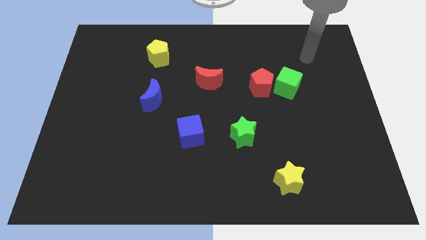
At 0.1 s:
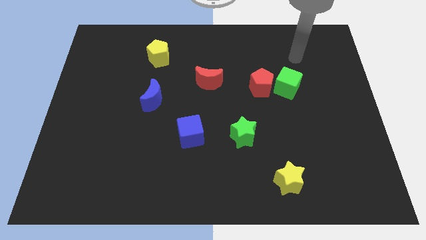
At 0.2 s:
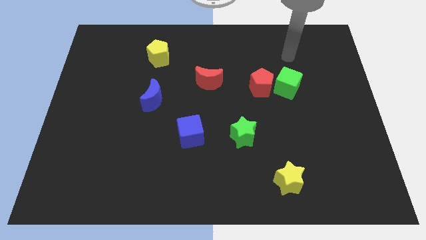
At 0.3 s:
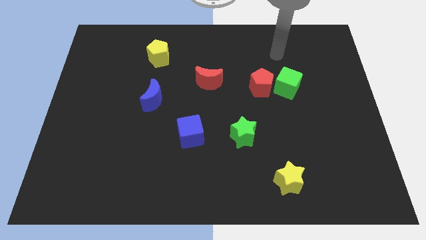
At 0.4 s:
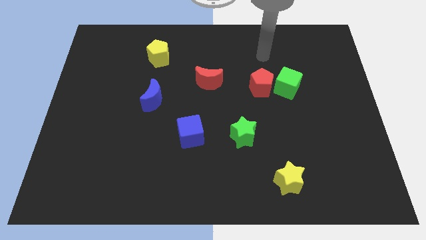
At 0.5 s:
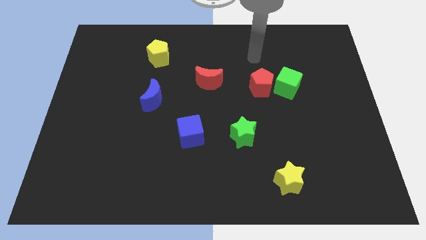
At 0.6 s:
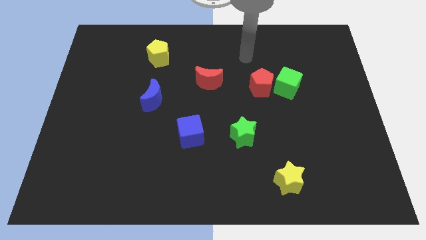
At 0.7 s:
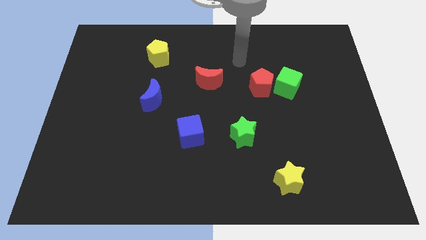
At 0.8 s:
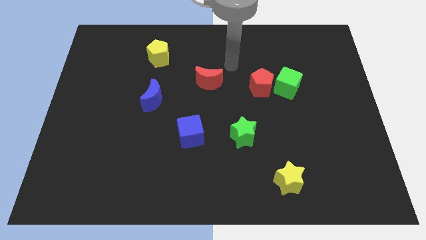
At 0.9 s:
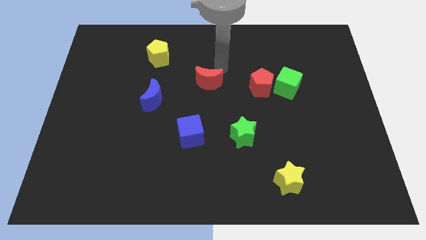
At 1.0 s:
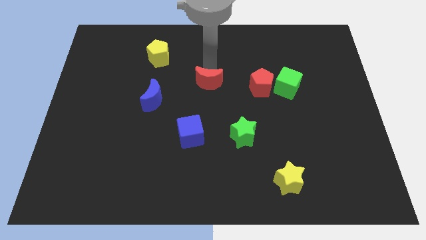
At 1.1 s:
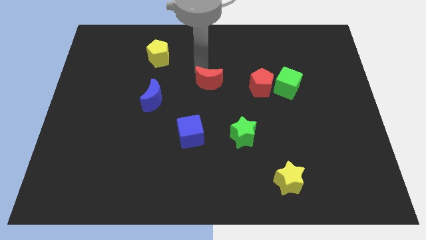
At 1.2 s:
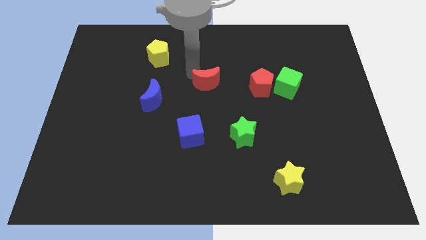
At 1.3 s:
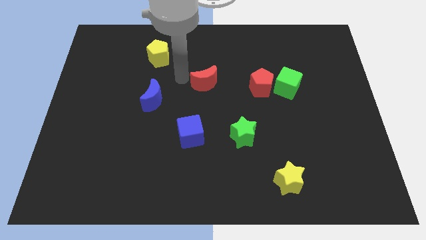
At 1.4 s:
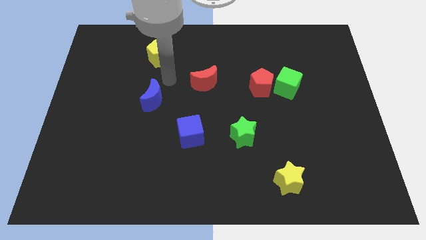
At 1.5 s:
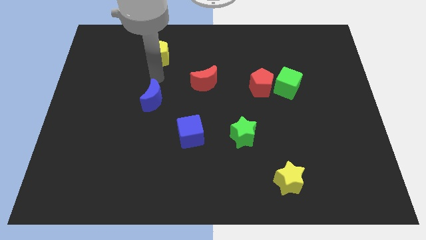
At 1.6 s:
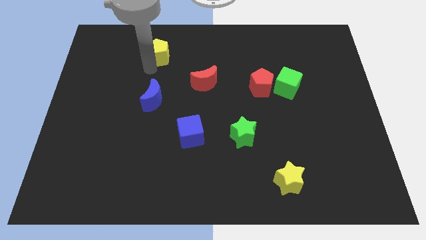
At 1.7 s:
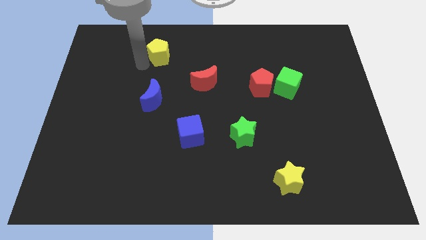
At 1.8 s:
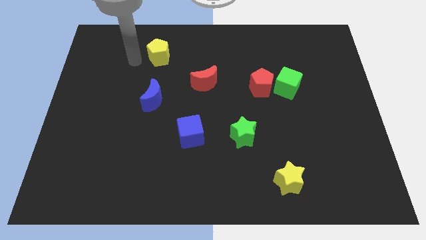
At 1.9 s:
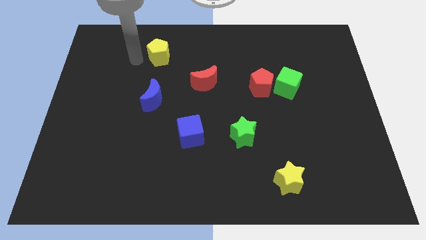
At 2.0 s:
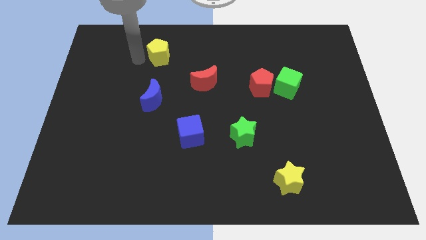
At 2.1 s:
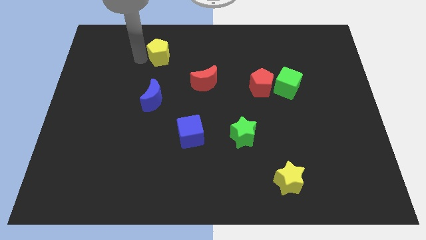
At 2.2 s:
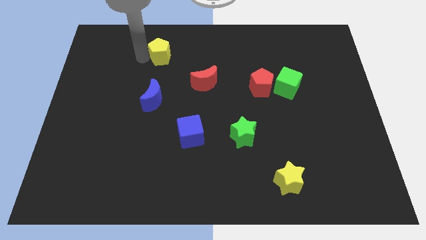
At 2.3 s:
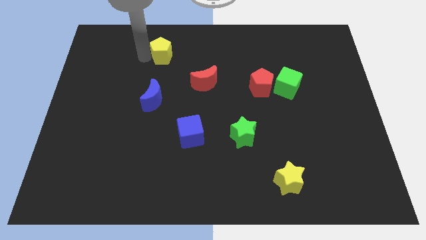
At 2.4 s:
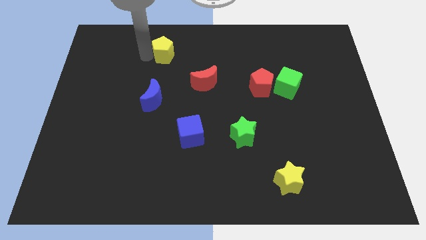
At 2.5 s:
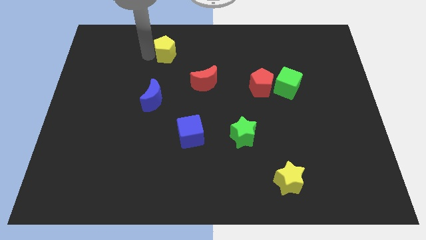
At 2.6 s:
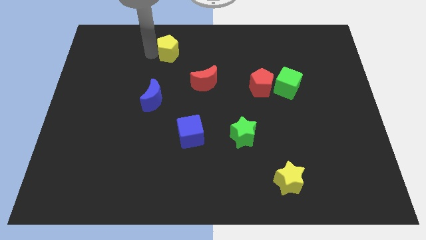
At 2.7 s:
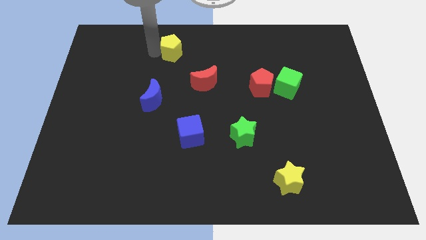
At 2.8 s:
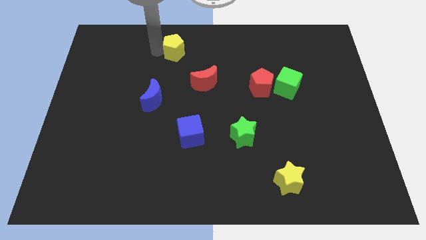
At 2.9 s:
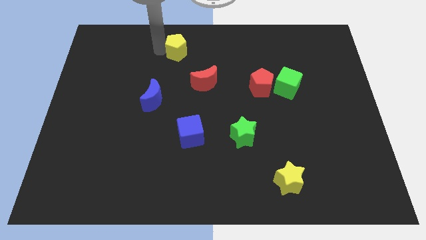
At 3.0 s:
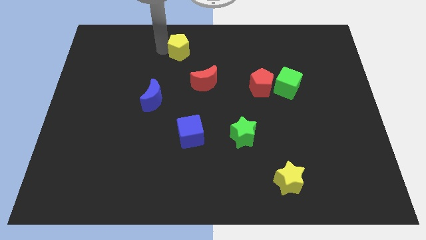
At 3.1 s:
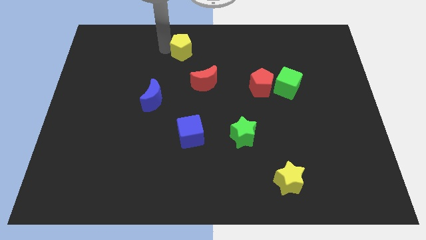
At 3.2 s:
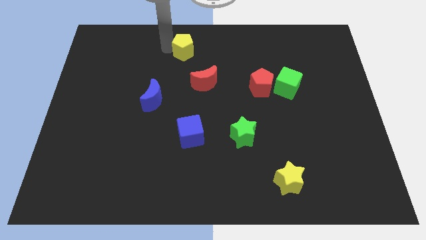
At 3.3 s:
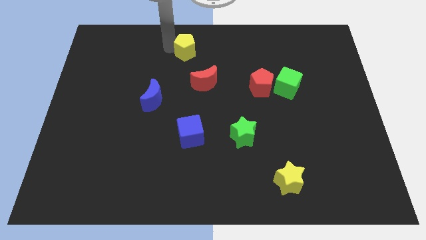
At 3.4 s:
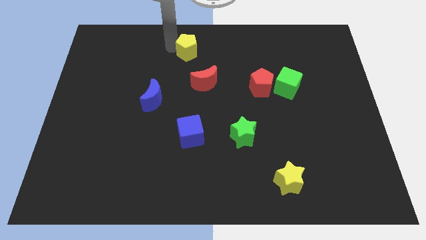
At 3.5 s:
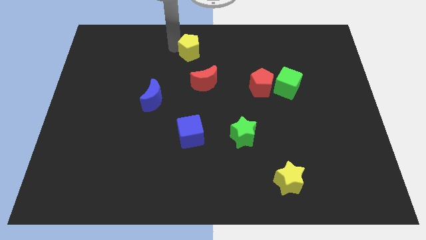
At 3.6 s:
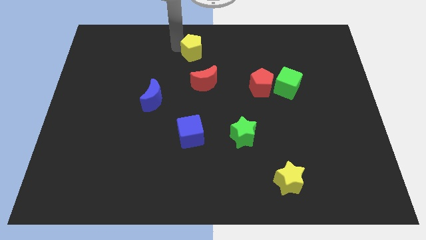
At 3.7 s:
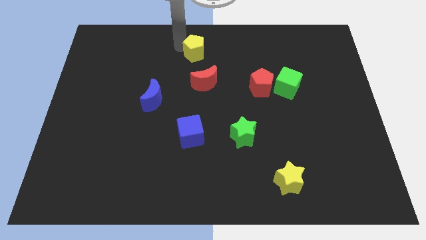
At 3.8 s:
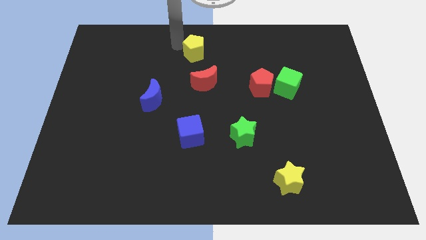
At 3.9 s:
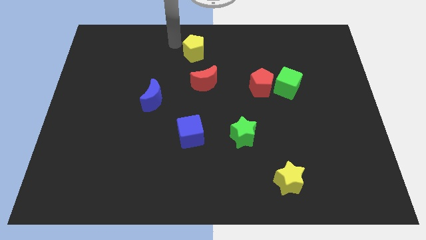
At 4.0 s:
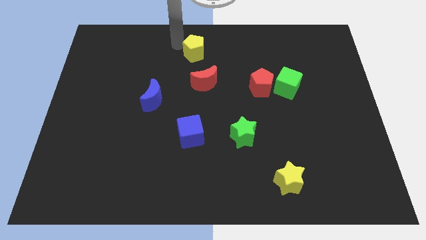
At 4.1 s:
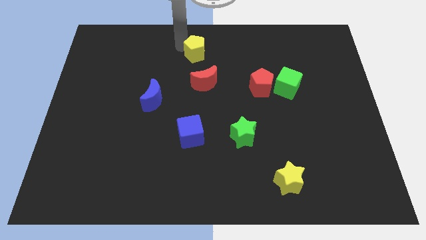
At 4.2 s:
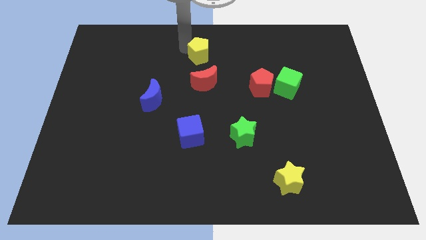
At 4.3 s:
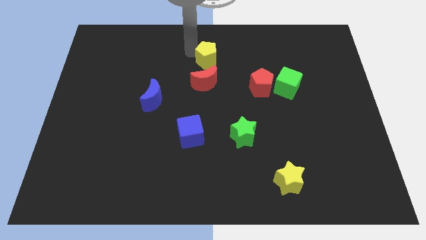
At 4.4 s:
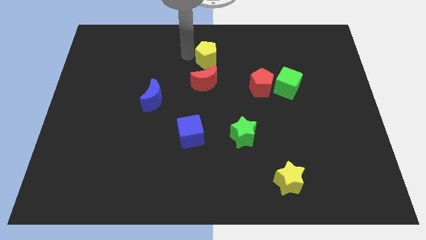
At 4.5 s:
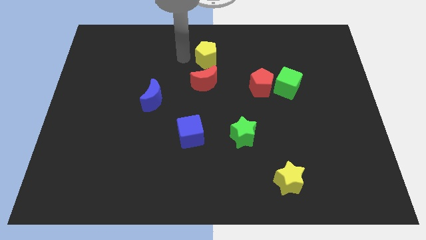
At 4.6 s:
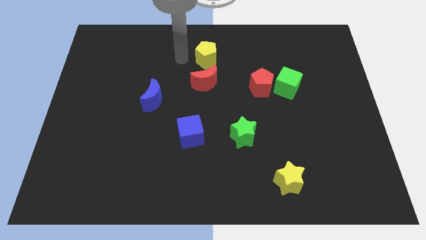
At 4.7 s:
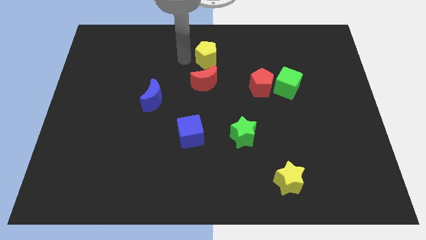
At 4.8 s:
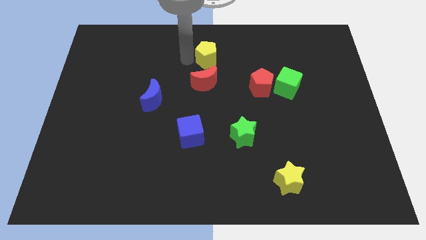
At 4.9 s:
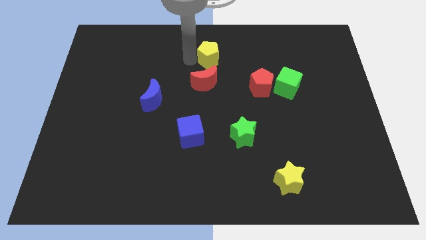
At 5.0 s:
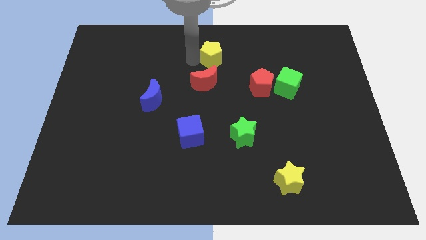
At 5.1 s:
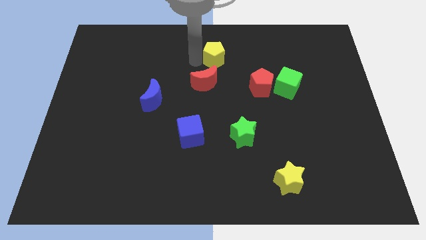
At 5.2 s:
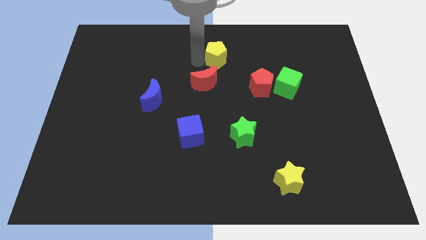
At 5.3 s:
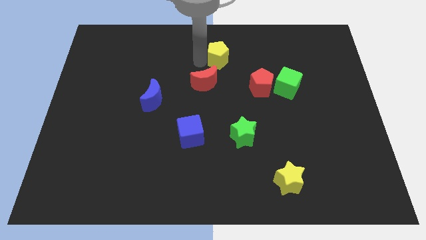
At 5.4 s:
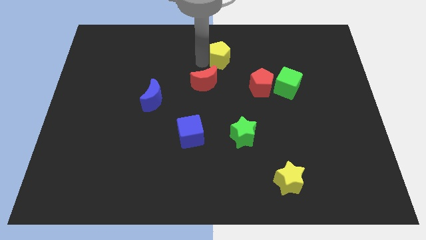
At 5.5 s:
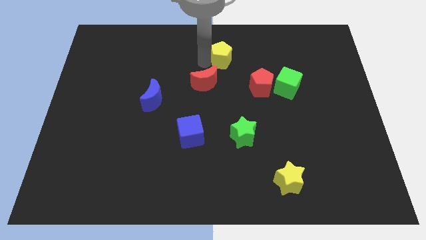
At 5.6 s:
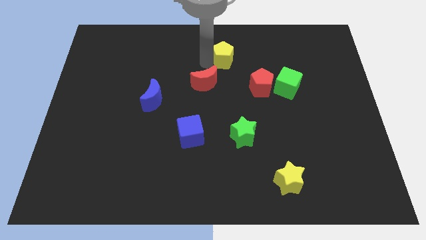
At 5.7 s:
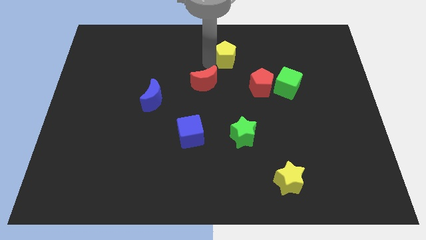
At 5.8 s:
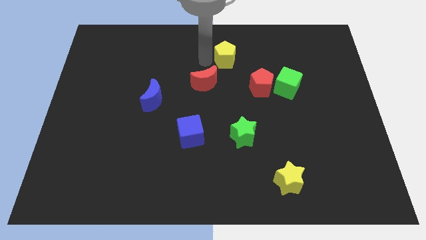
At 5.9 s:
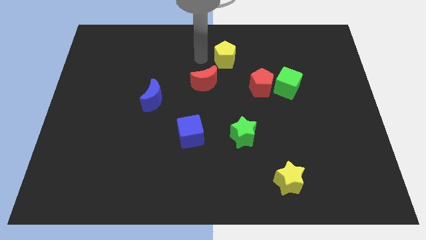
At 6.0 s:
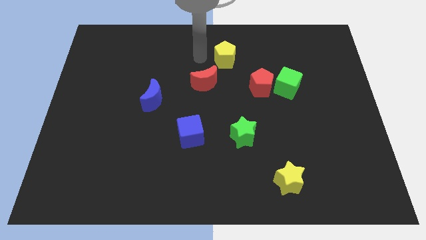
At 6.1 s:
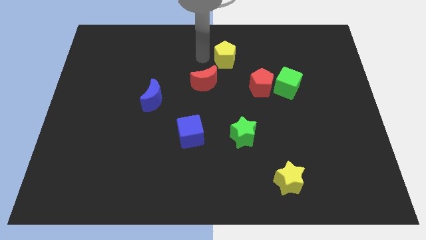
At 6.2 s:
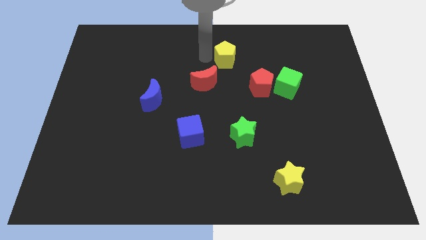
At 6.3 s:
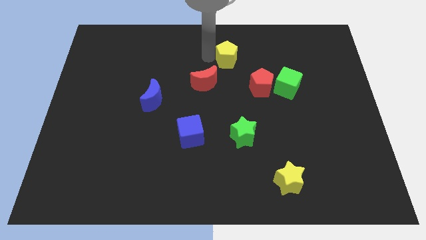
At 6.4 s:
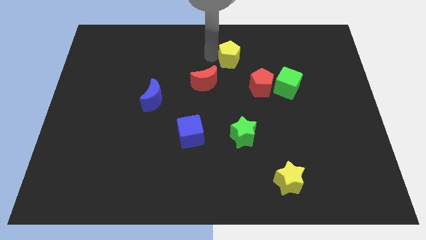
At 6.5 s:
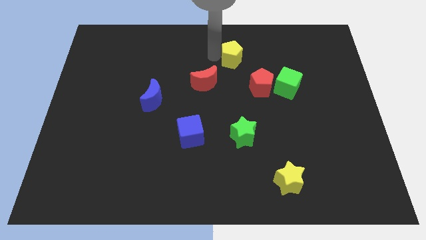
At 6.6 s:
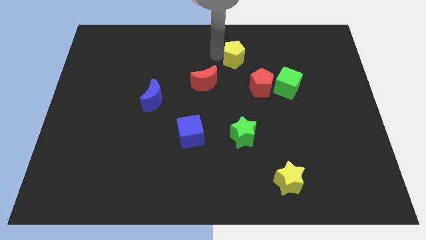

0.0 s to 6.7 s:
slide the yellow pentagon right

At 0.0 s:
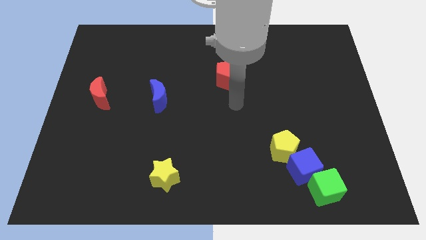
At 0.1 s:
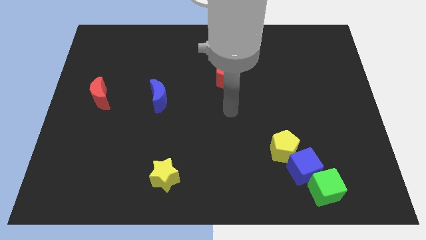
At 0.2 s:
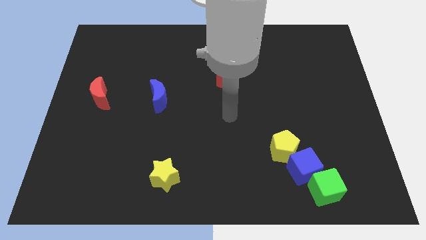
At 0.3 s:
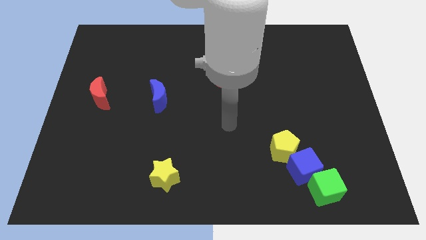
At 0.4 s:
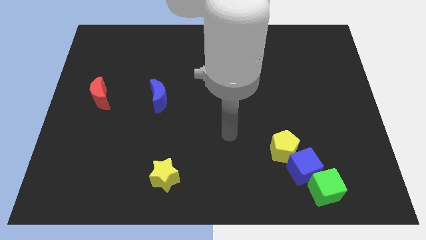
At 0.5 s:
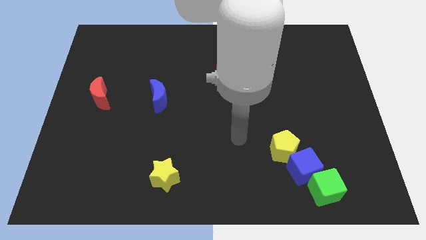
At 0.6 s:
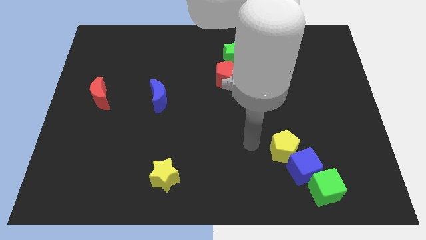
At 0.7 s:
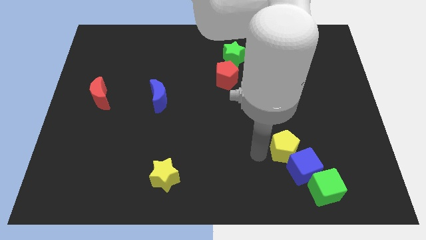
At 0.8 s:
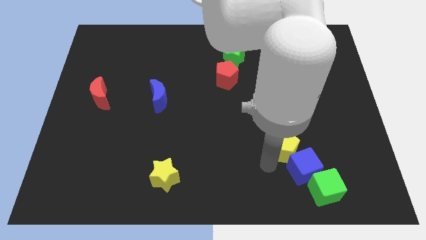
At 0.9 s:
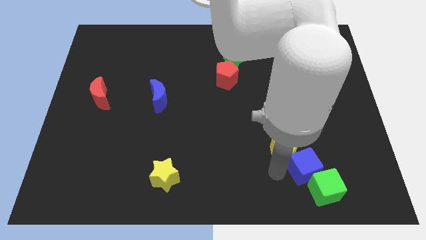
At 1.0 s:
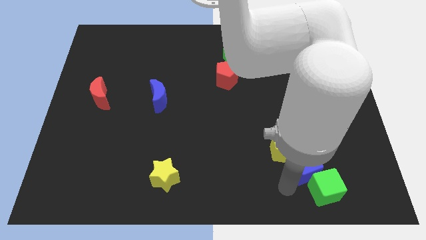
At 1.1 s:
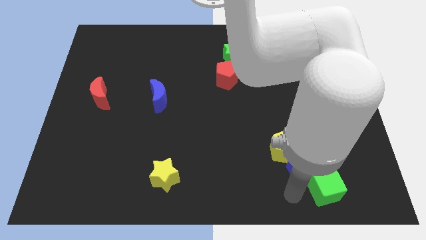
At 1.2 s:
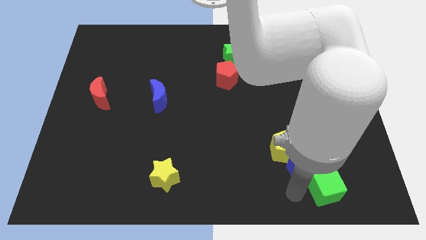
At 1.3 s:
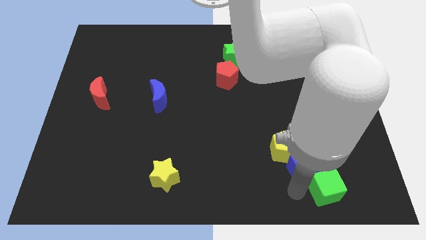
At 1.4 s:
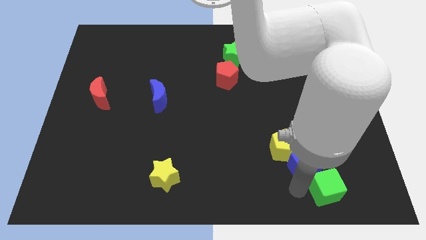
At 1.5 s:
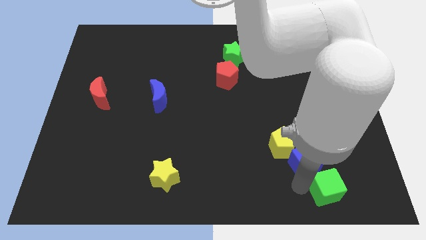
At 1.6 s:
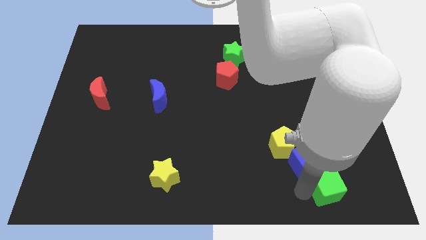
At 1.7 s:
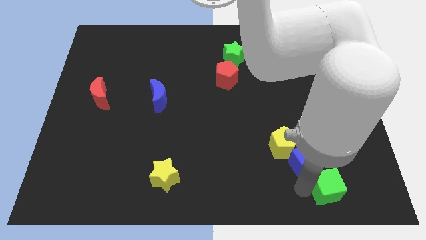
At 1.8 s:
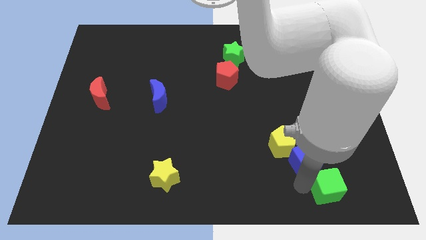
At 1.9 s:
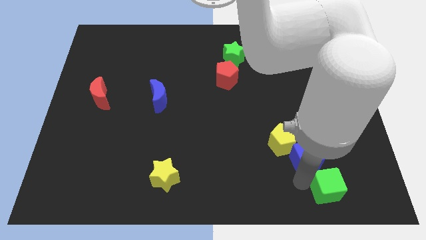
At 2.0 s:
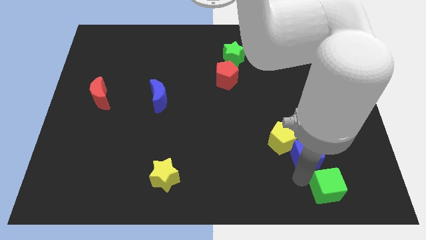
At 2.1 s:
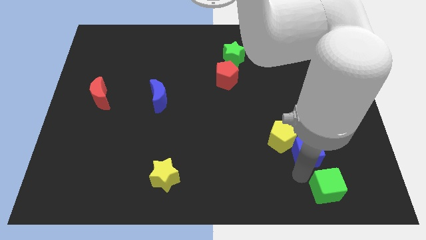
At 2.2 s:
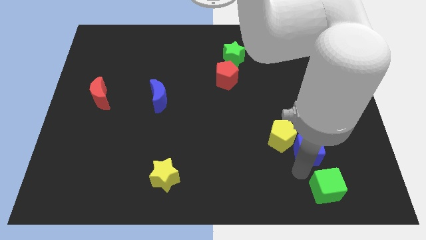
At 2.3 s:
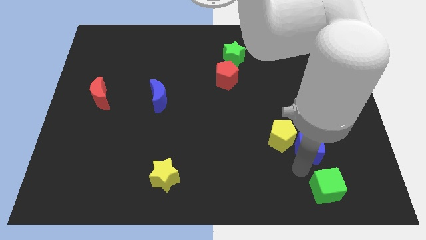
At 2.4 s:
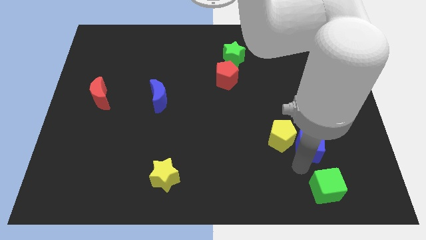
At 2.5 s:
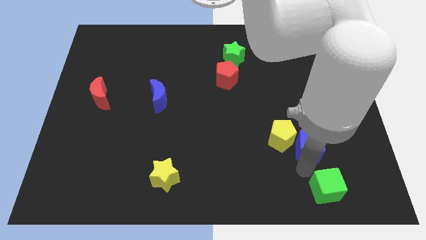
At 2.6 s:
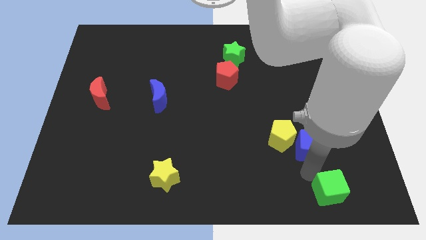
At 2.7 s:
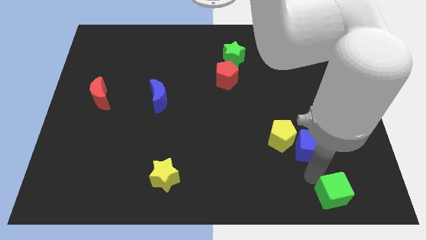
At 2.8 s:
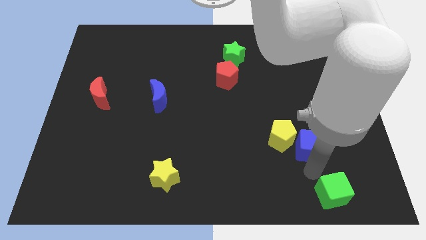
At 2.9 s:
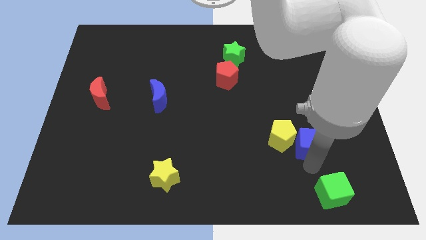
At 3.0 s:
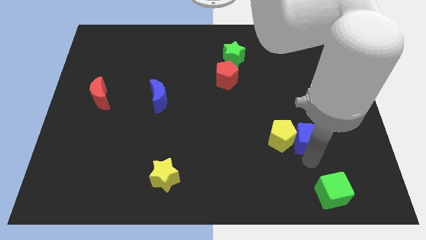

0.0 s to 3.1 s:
move the blue cube upwards slightly
